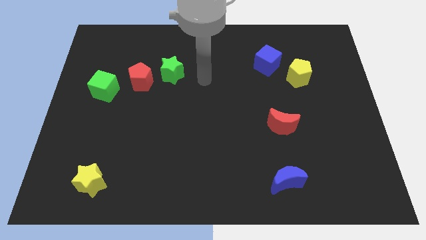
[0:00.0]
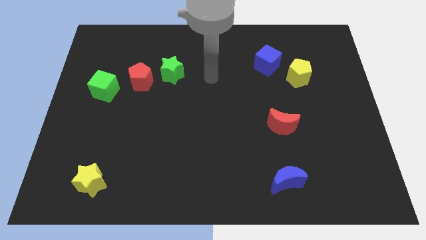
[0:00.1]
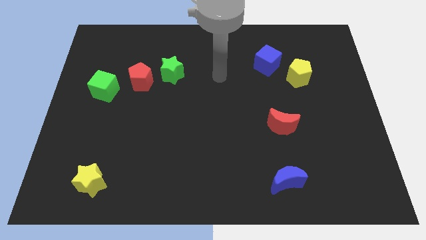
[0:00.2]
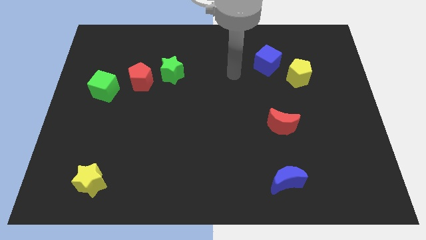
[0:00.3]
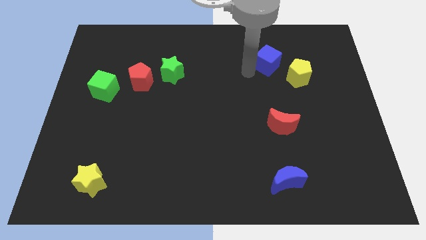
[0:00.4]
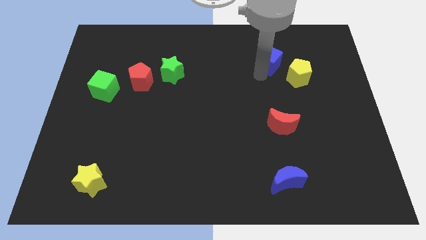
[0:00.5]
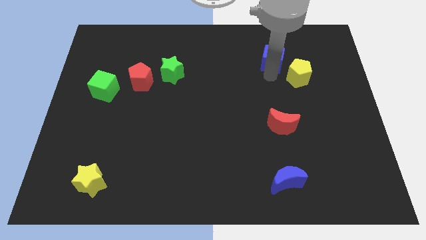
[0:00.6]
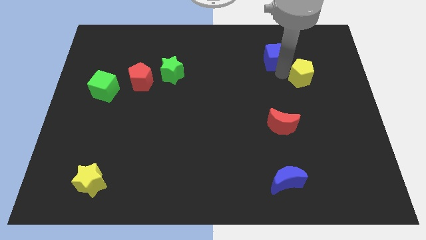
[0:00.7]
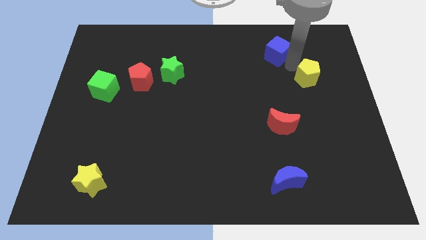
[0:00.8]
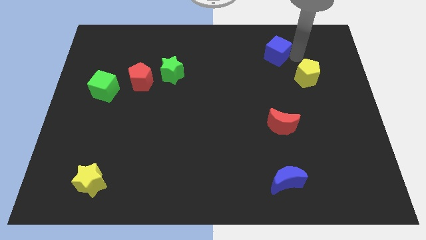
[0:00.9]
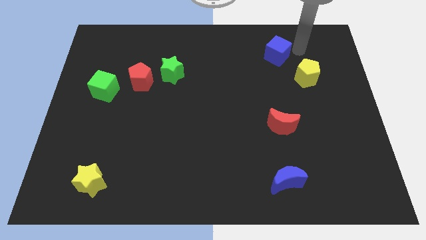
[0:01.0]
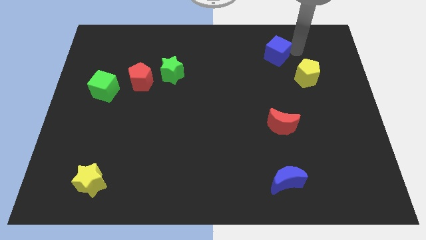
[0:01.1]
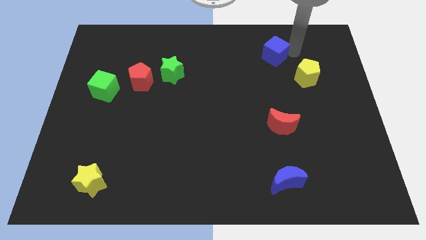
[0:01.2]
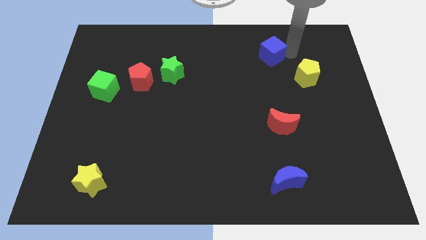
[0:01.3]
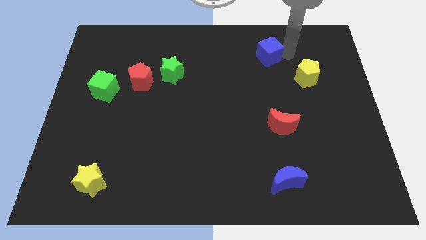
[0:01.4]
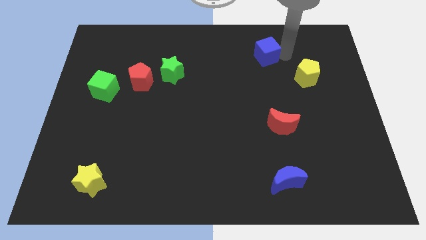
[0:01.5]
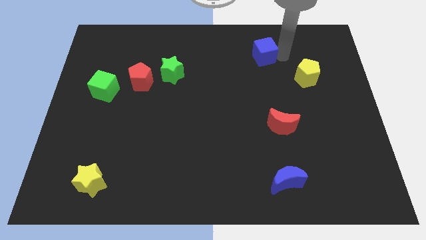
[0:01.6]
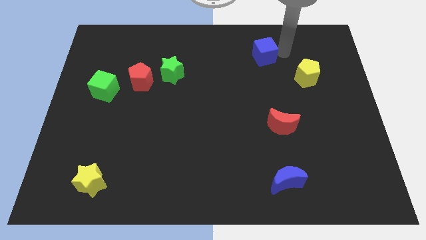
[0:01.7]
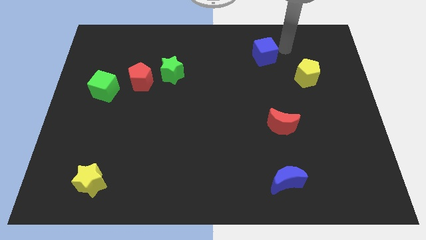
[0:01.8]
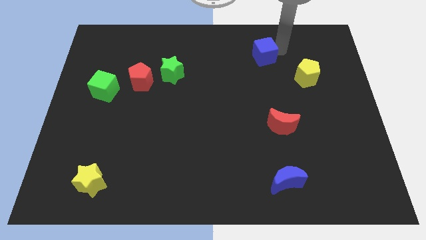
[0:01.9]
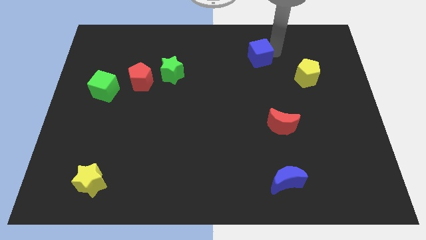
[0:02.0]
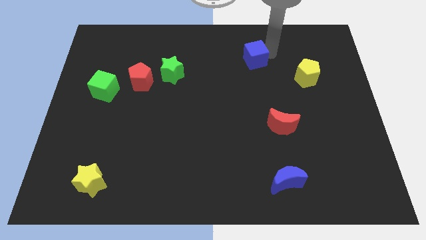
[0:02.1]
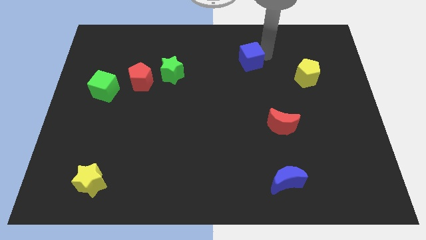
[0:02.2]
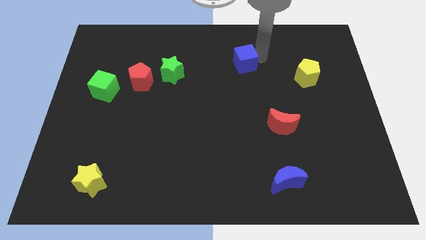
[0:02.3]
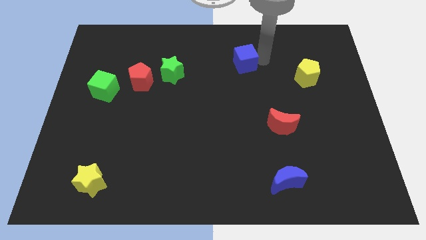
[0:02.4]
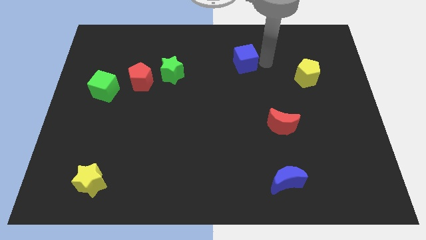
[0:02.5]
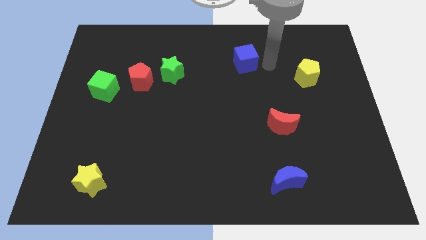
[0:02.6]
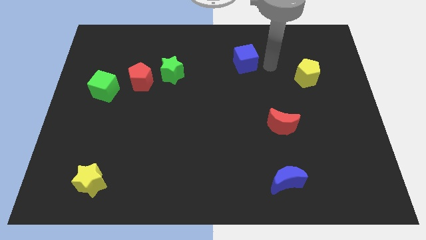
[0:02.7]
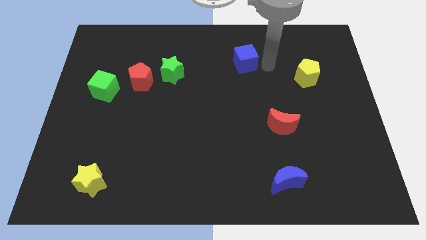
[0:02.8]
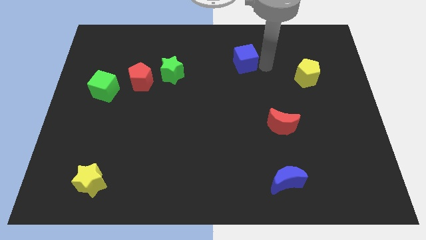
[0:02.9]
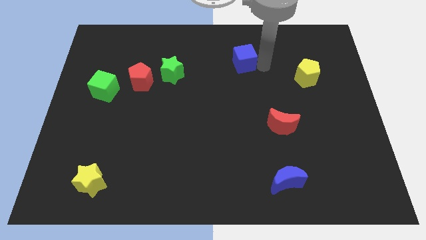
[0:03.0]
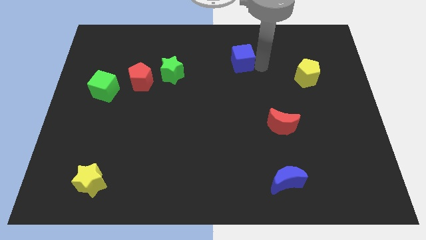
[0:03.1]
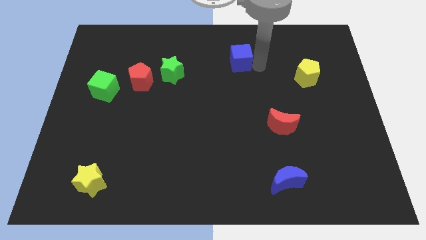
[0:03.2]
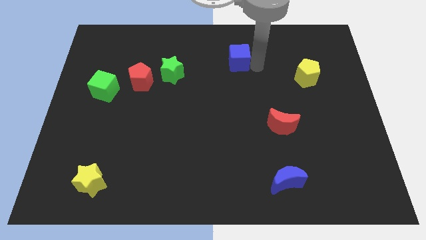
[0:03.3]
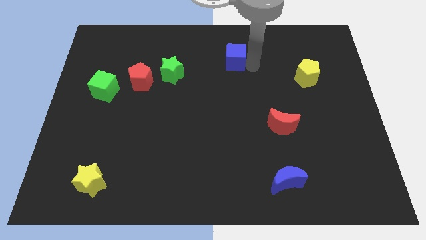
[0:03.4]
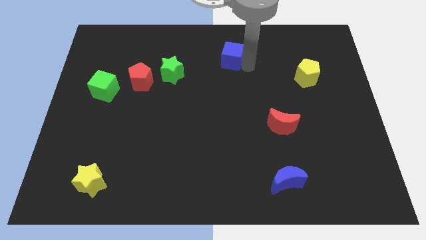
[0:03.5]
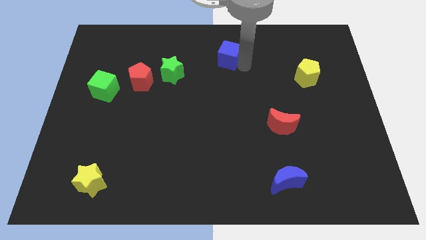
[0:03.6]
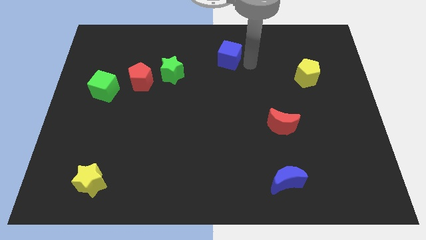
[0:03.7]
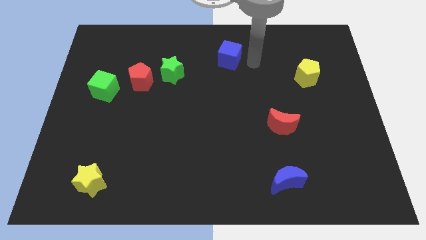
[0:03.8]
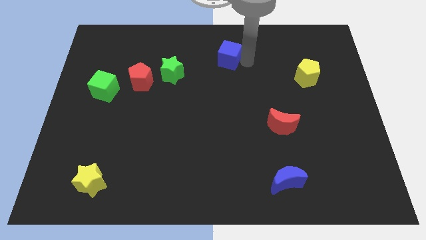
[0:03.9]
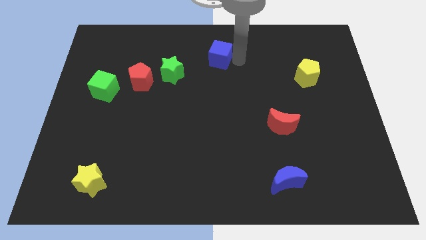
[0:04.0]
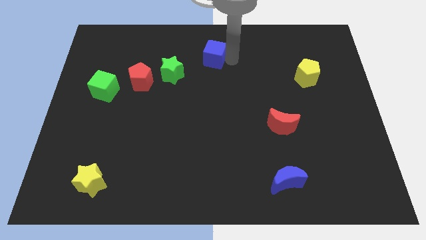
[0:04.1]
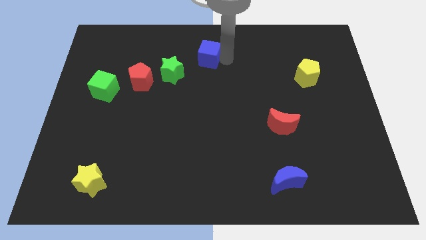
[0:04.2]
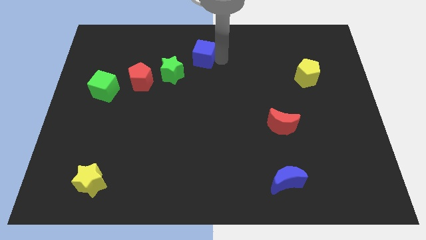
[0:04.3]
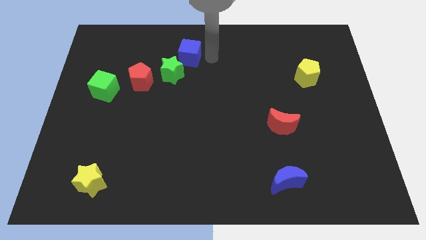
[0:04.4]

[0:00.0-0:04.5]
move the blue cube to the left

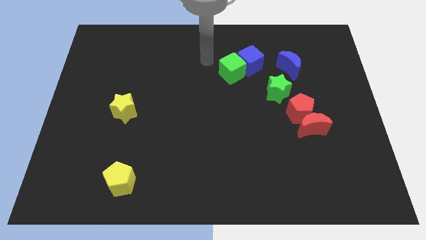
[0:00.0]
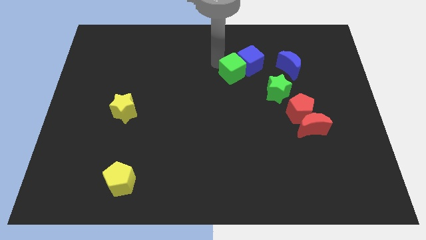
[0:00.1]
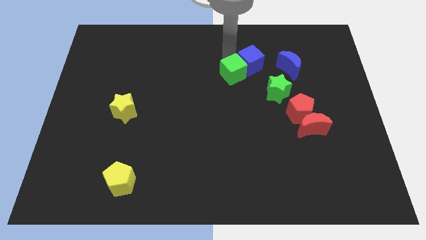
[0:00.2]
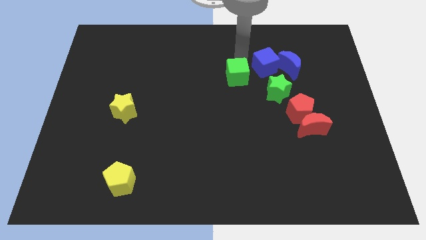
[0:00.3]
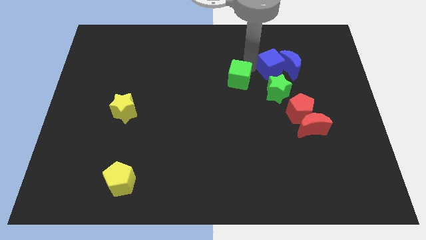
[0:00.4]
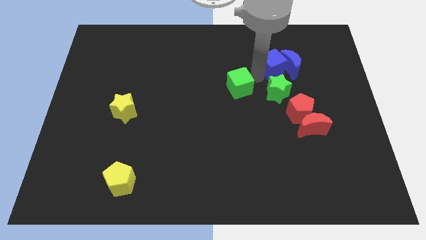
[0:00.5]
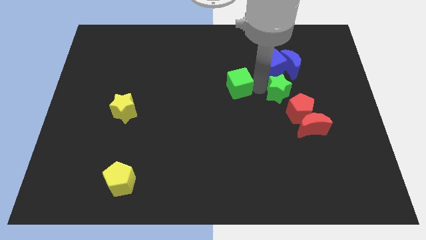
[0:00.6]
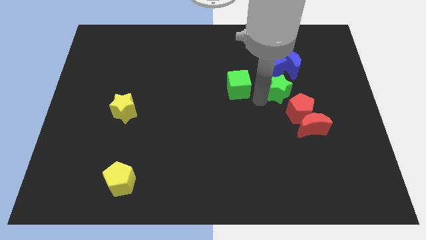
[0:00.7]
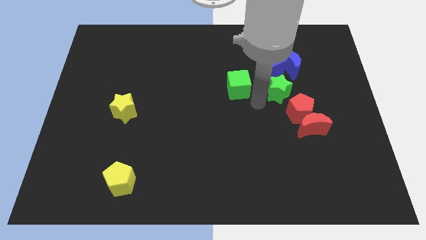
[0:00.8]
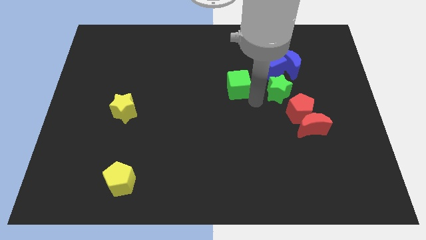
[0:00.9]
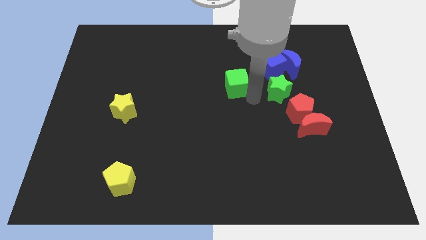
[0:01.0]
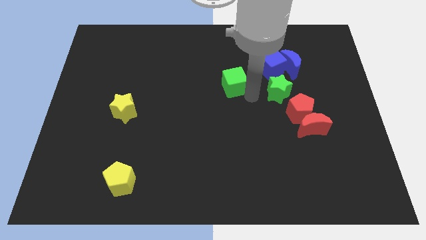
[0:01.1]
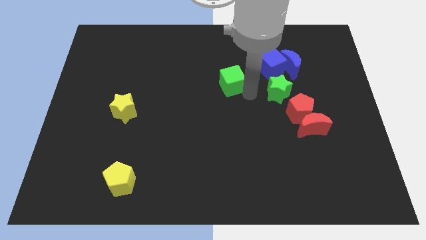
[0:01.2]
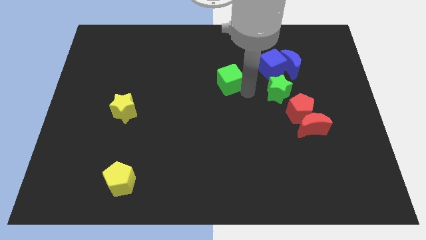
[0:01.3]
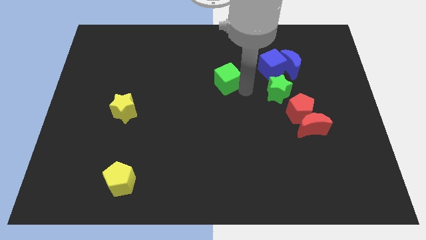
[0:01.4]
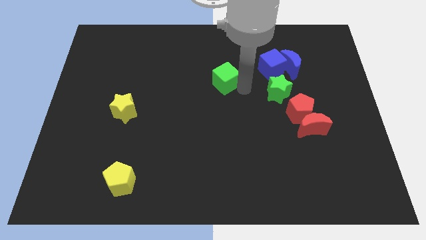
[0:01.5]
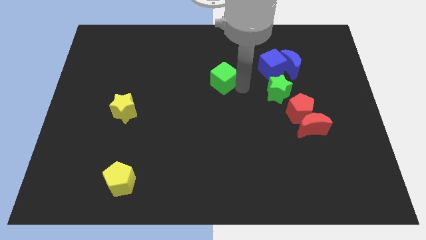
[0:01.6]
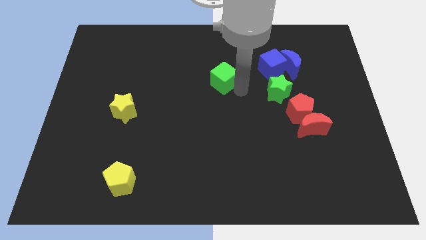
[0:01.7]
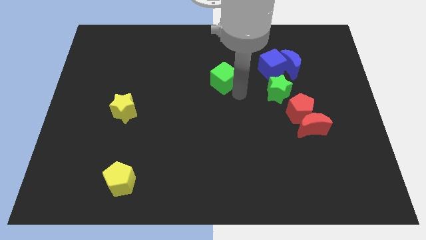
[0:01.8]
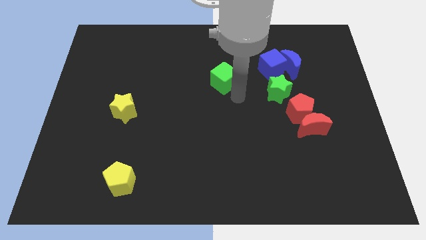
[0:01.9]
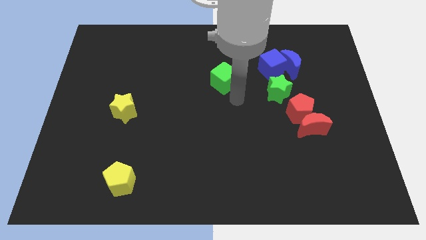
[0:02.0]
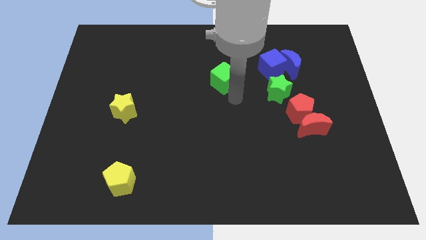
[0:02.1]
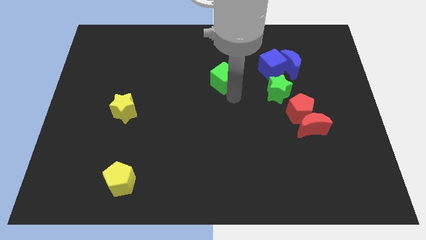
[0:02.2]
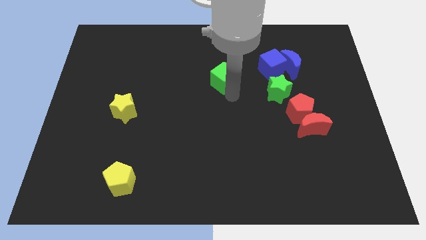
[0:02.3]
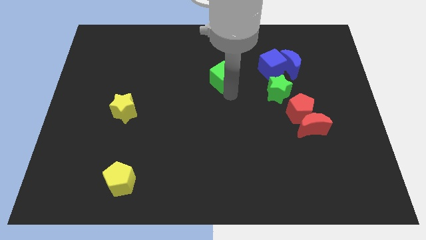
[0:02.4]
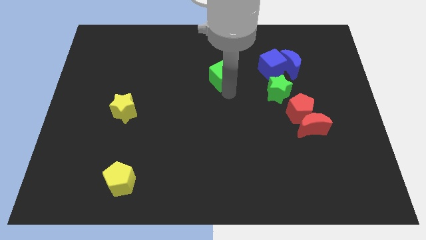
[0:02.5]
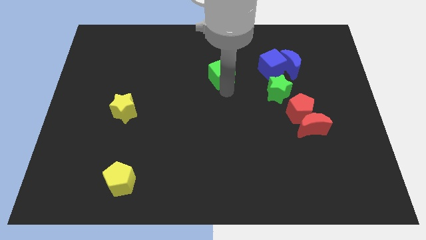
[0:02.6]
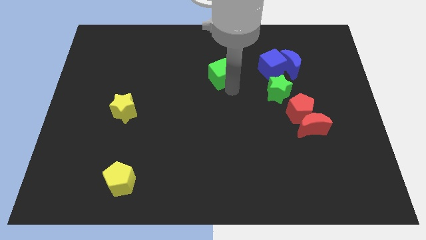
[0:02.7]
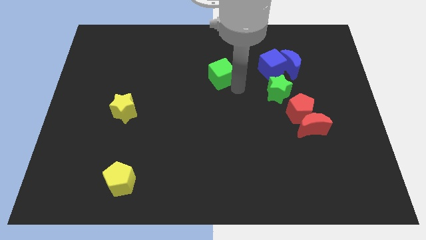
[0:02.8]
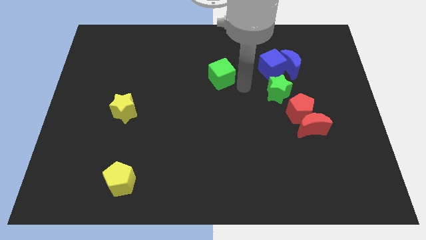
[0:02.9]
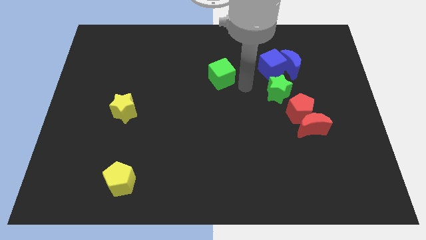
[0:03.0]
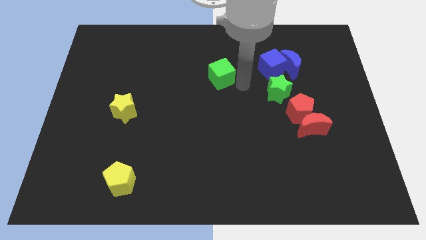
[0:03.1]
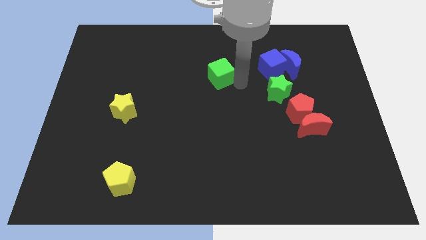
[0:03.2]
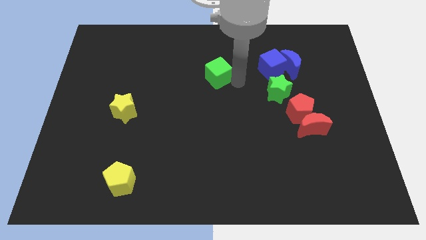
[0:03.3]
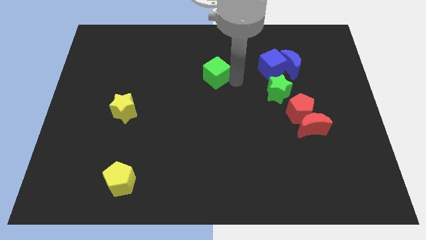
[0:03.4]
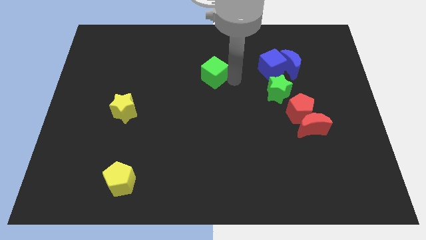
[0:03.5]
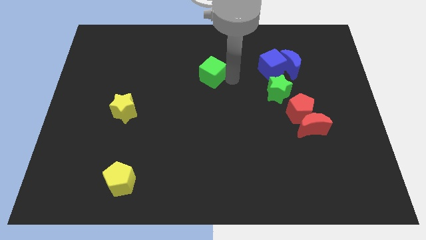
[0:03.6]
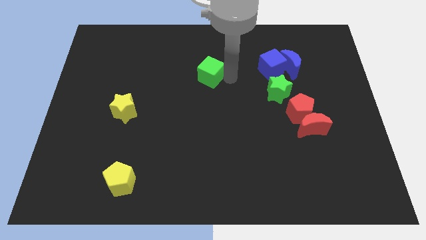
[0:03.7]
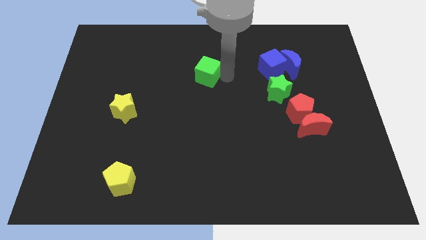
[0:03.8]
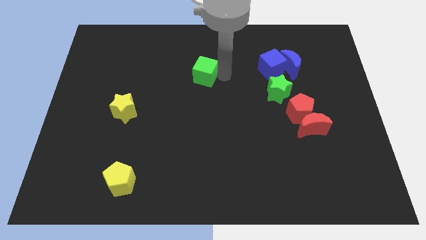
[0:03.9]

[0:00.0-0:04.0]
slide the green cube a little to the left
